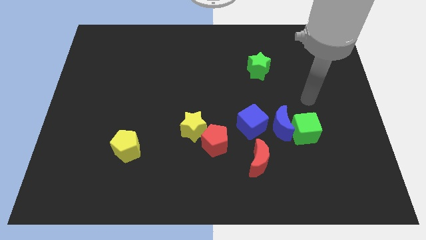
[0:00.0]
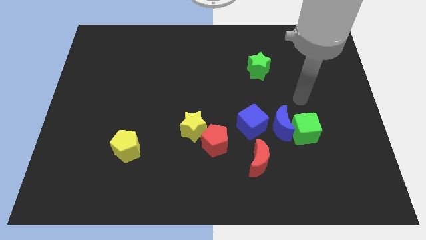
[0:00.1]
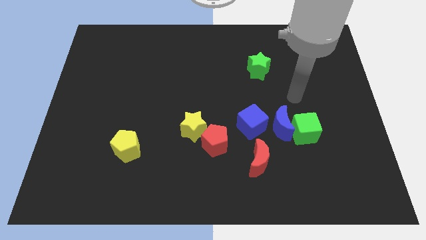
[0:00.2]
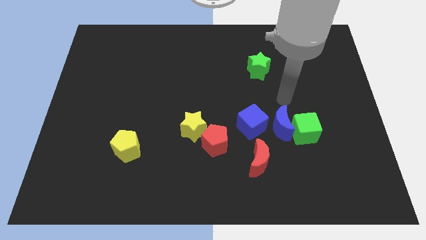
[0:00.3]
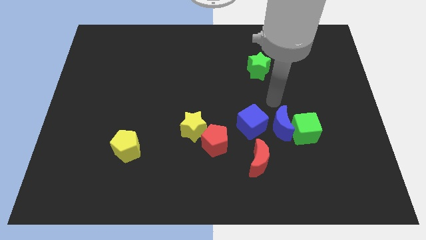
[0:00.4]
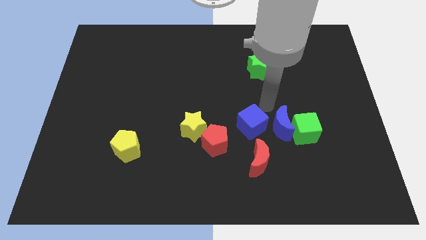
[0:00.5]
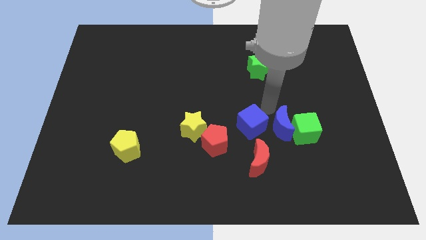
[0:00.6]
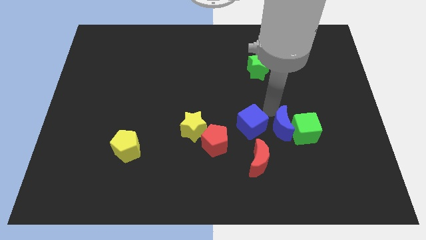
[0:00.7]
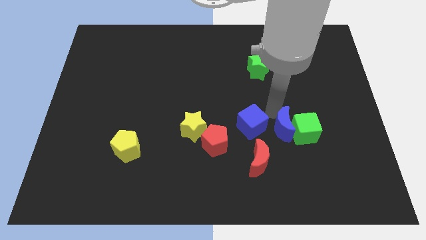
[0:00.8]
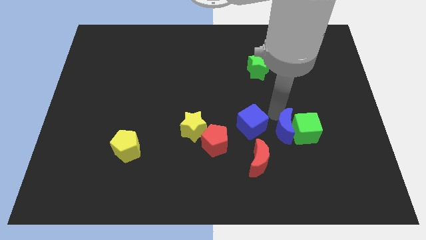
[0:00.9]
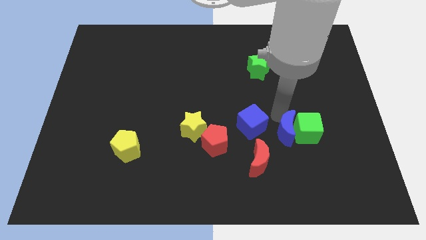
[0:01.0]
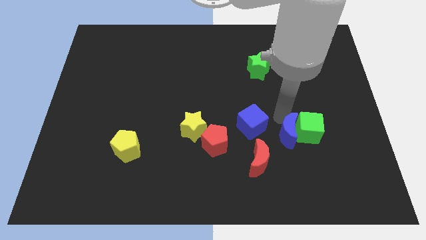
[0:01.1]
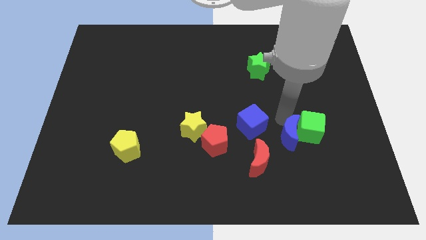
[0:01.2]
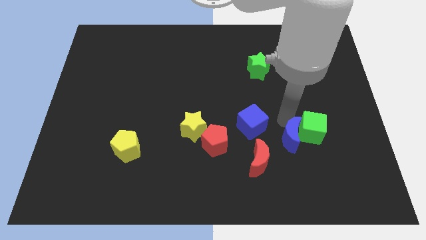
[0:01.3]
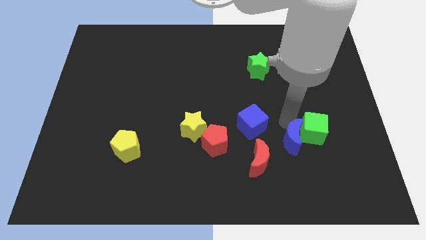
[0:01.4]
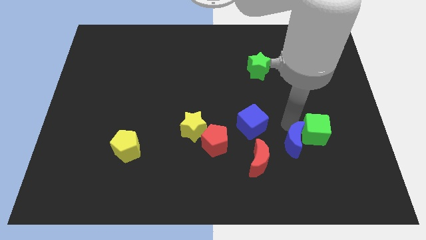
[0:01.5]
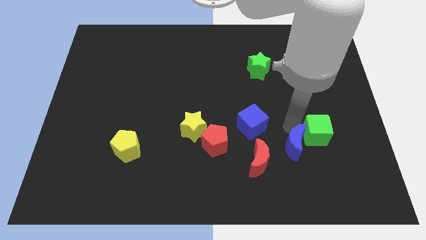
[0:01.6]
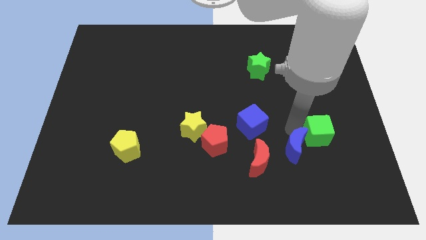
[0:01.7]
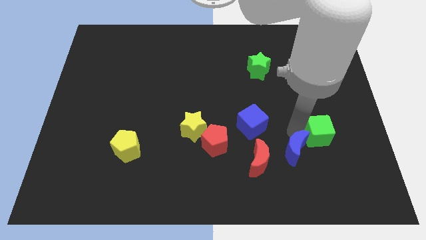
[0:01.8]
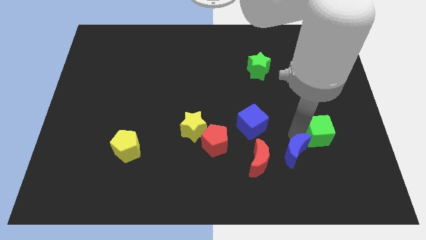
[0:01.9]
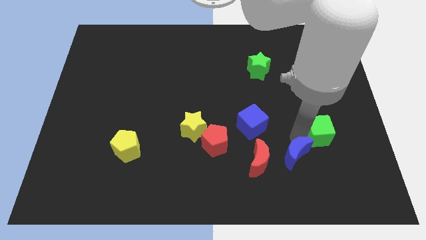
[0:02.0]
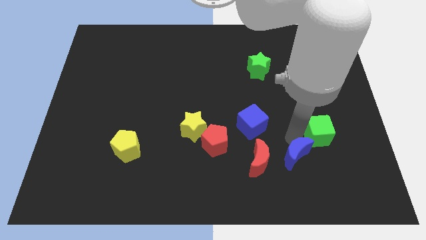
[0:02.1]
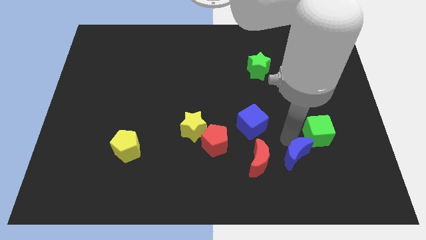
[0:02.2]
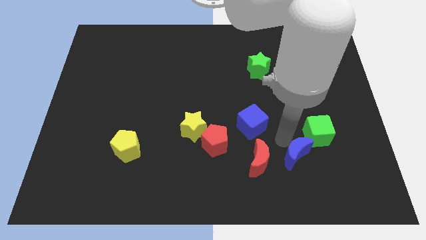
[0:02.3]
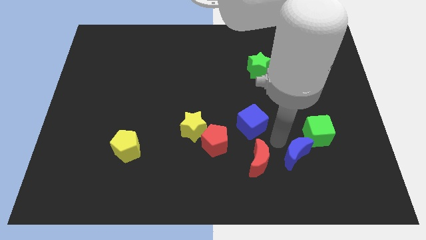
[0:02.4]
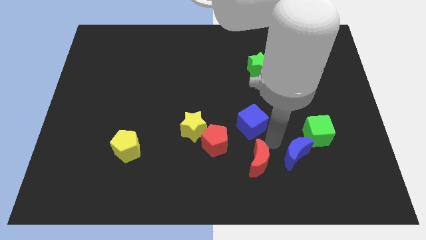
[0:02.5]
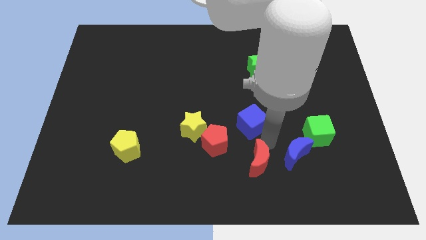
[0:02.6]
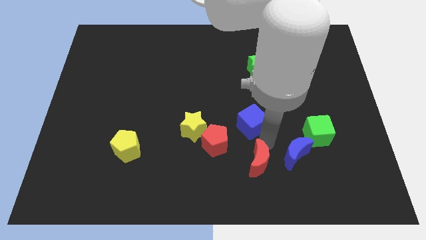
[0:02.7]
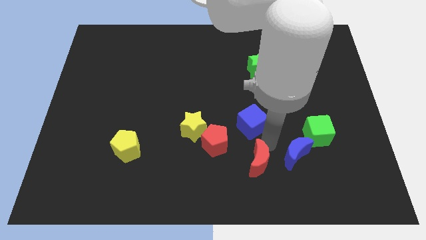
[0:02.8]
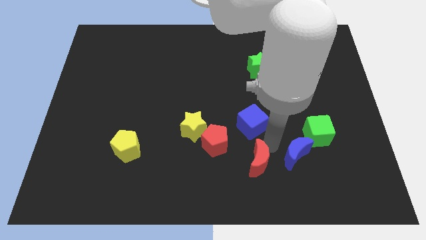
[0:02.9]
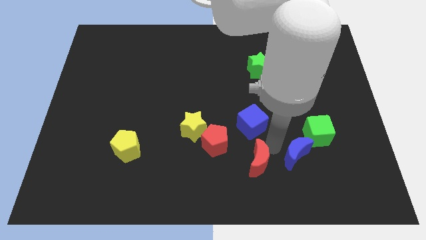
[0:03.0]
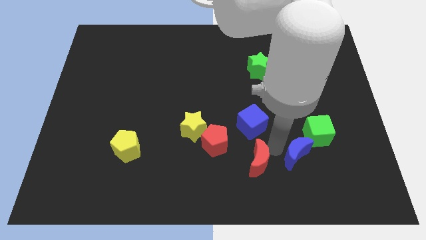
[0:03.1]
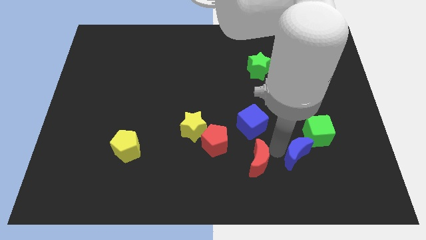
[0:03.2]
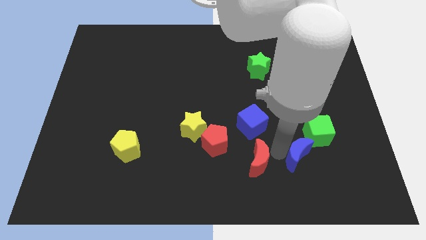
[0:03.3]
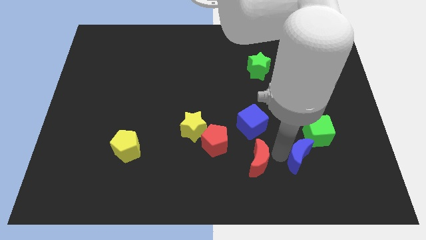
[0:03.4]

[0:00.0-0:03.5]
slightly slide the blue moon down and right diagonally

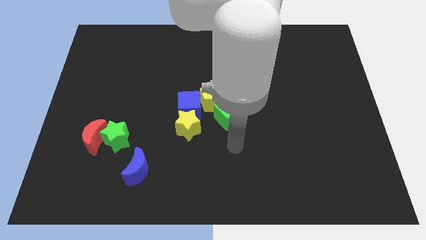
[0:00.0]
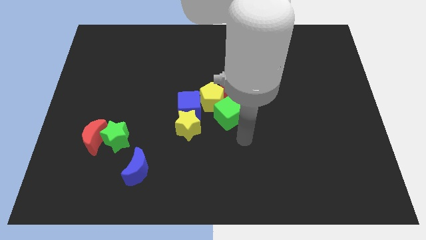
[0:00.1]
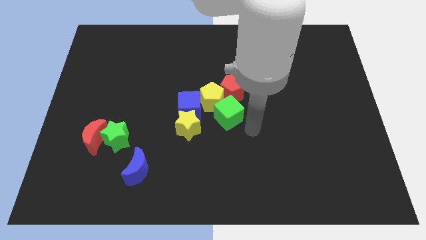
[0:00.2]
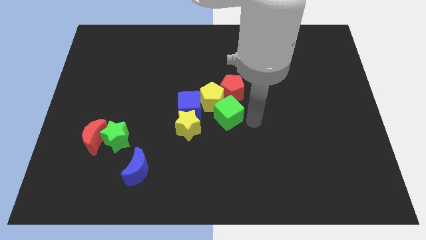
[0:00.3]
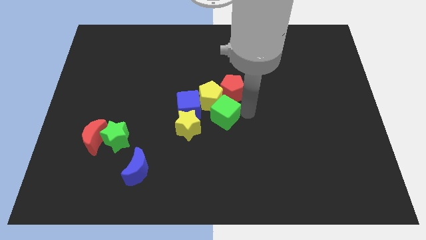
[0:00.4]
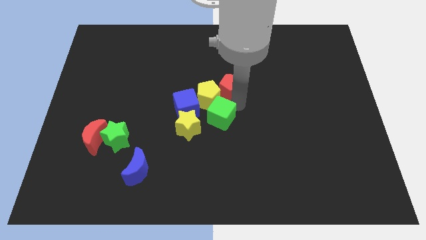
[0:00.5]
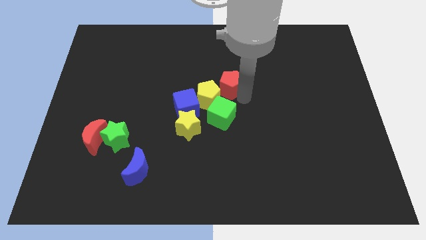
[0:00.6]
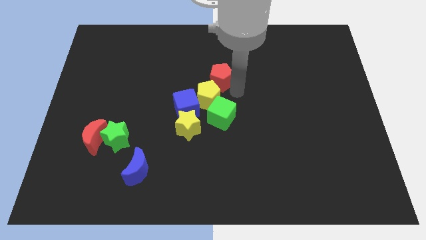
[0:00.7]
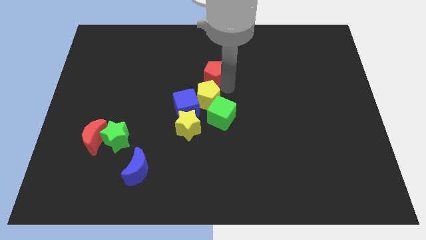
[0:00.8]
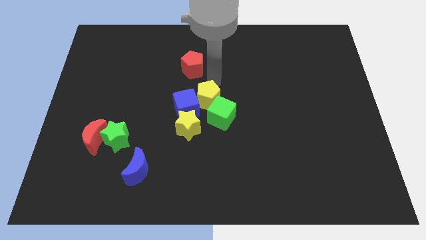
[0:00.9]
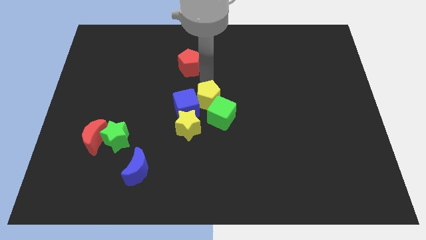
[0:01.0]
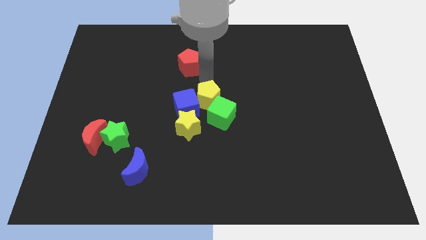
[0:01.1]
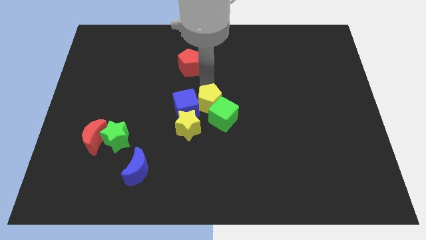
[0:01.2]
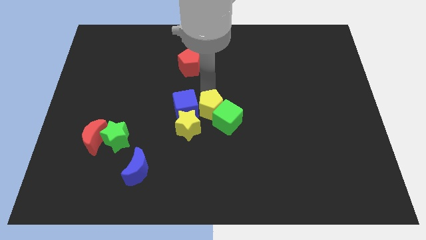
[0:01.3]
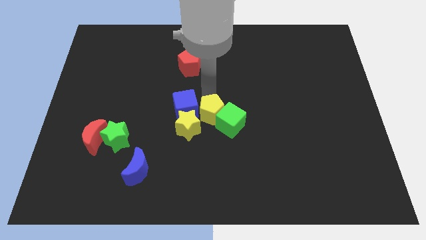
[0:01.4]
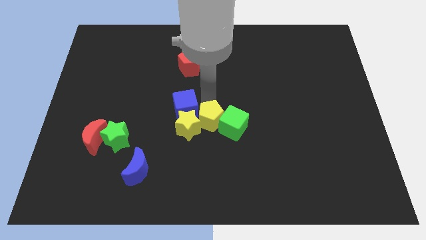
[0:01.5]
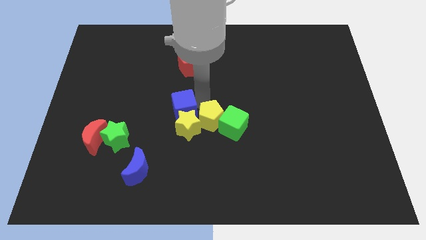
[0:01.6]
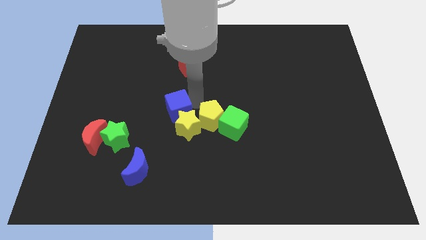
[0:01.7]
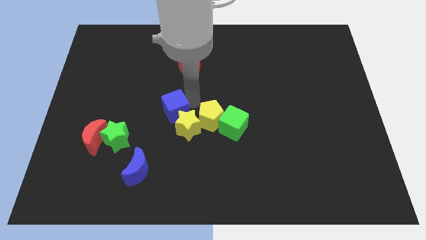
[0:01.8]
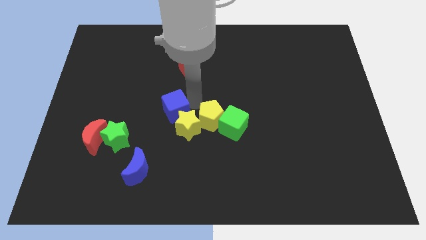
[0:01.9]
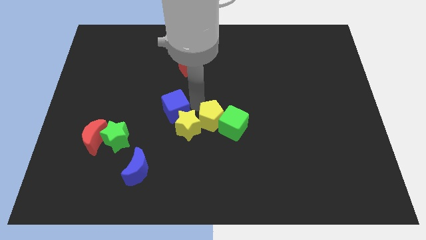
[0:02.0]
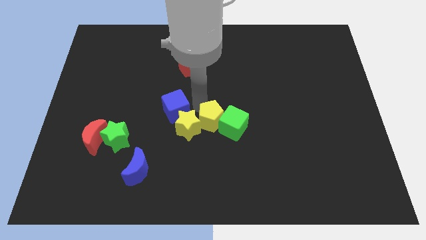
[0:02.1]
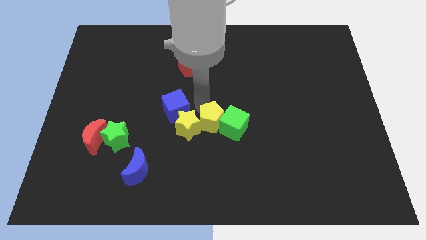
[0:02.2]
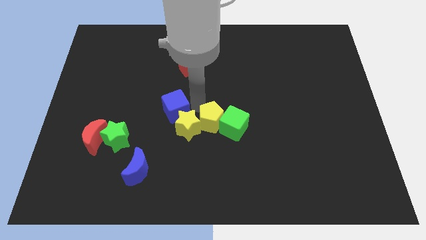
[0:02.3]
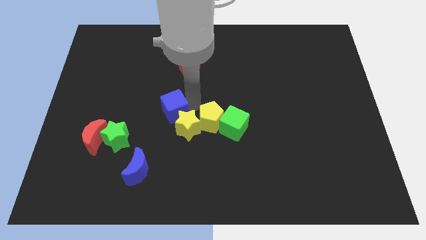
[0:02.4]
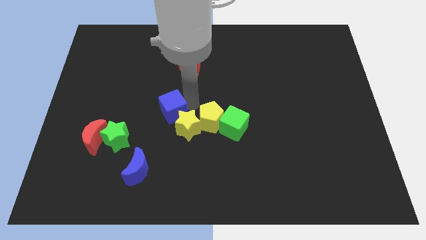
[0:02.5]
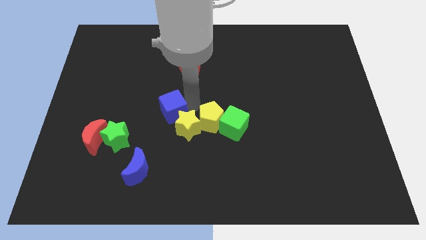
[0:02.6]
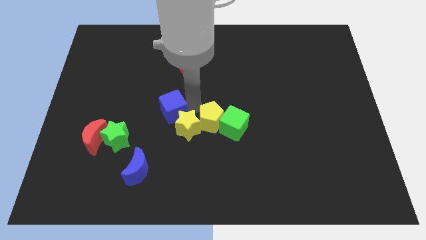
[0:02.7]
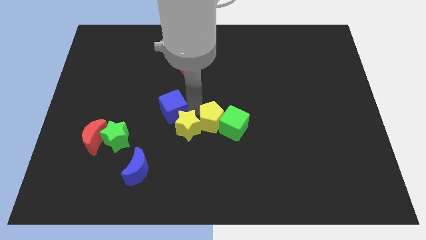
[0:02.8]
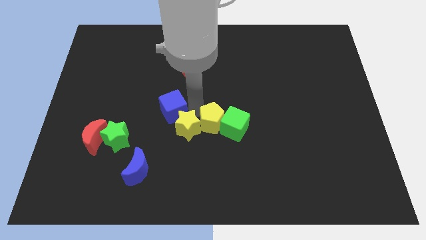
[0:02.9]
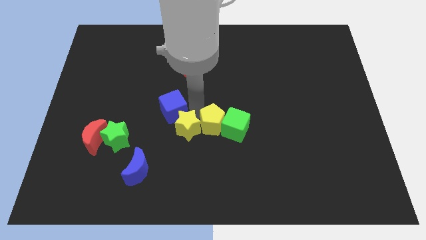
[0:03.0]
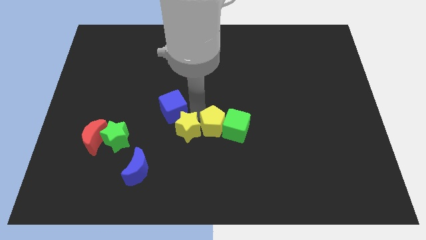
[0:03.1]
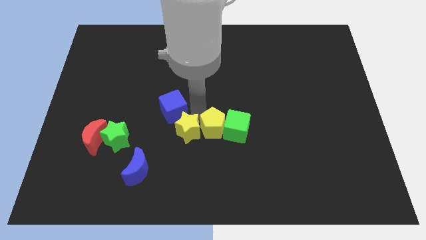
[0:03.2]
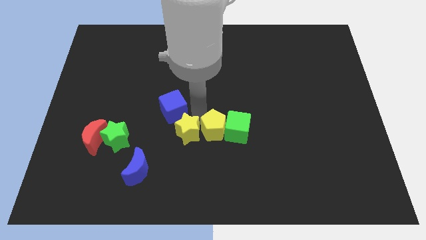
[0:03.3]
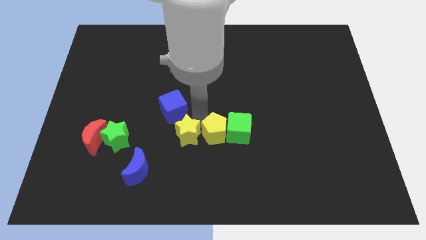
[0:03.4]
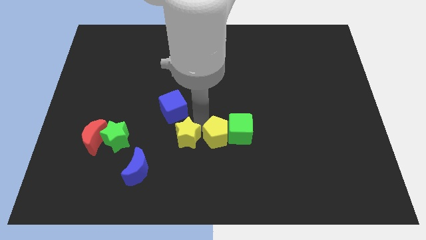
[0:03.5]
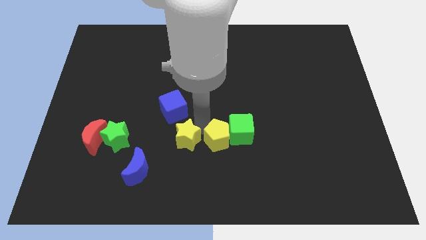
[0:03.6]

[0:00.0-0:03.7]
slide the yellow pentagon a little bit diagonally downwards and to the right

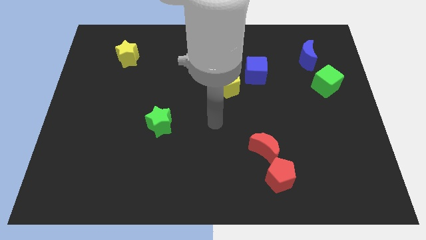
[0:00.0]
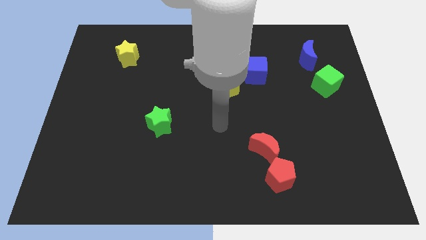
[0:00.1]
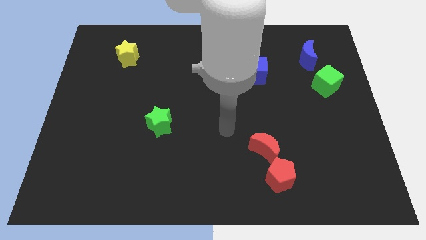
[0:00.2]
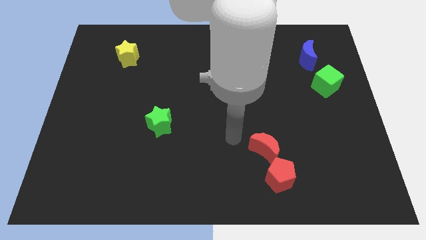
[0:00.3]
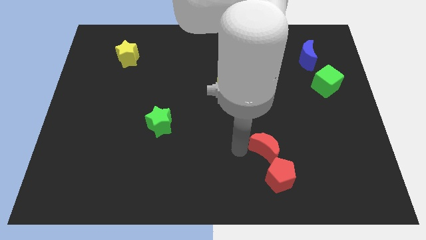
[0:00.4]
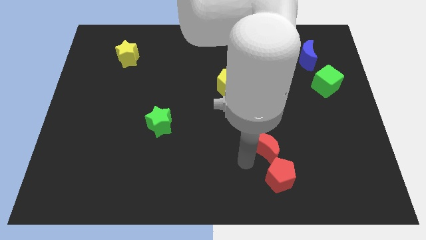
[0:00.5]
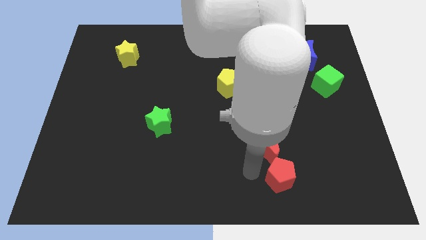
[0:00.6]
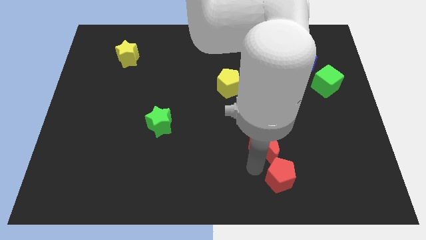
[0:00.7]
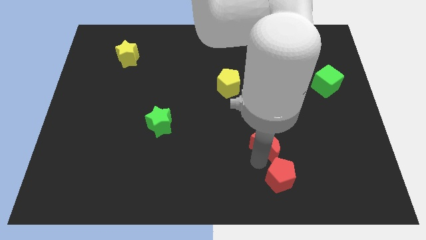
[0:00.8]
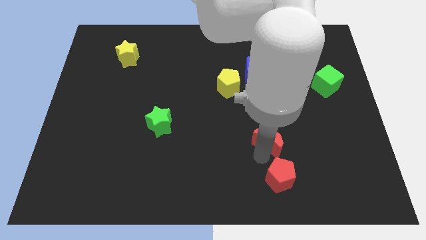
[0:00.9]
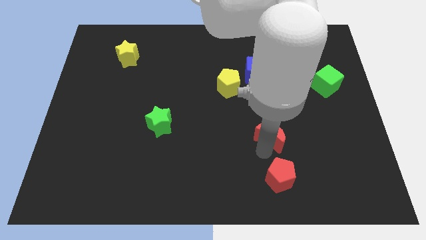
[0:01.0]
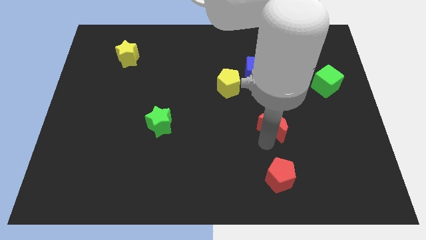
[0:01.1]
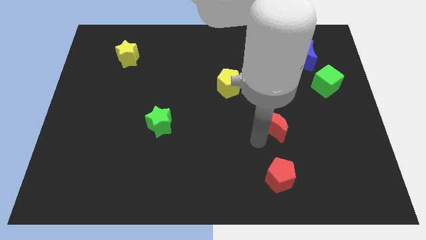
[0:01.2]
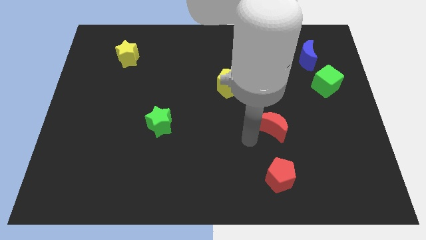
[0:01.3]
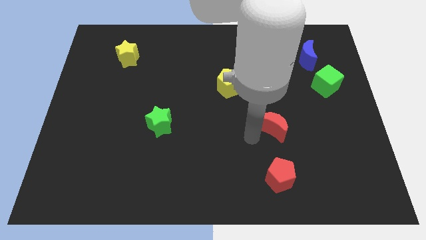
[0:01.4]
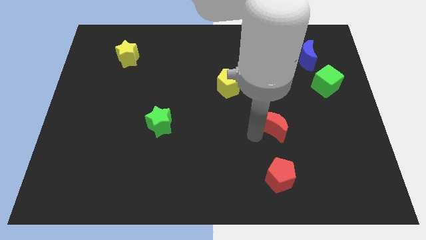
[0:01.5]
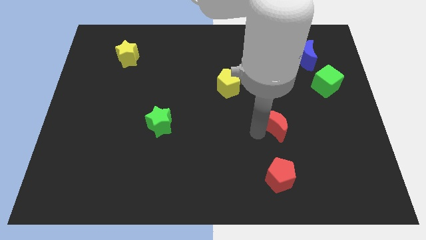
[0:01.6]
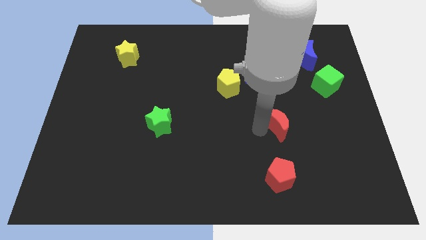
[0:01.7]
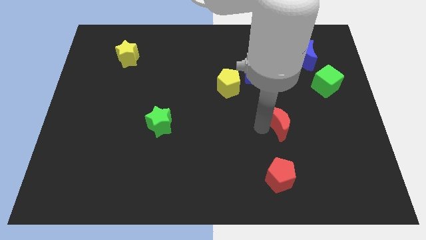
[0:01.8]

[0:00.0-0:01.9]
move the red moon up and right a bit
